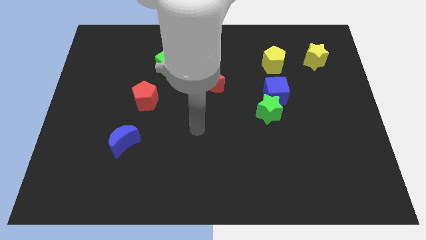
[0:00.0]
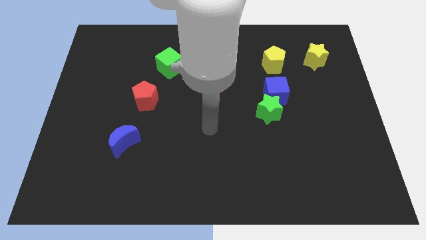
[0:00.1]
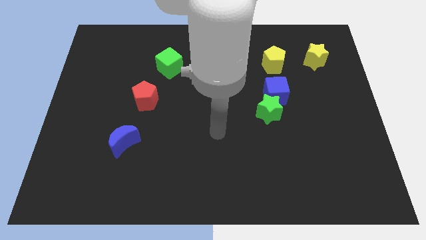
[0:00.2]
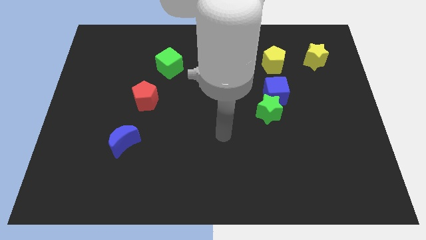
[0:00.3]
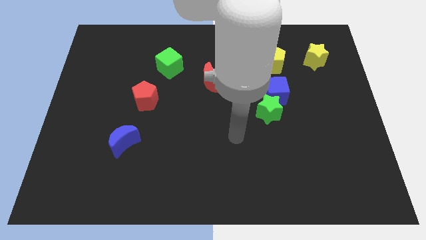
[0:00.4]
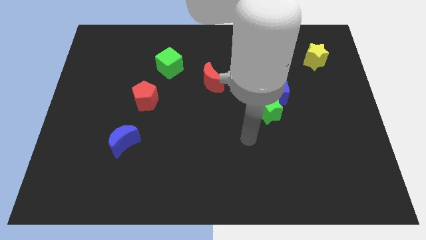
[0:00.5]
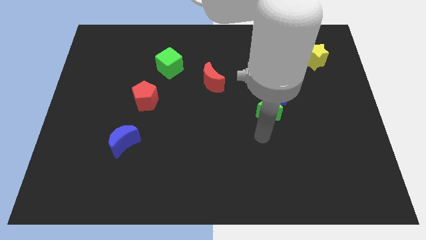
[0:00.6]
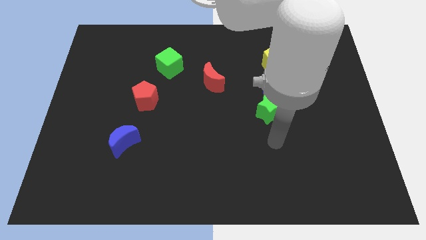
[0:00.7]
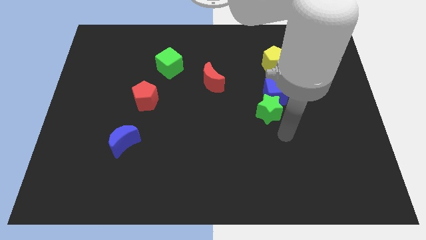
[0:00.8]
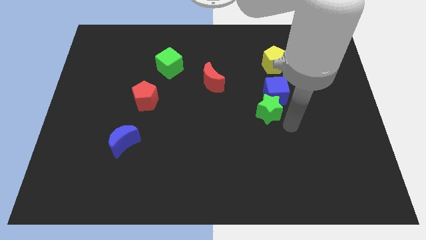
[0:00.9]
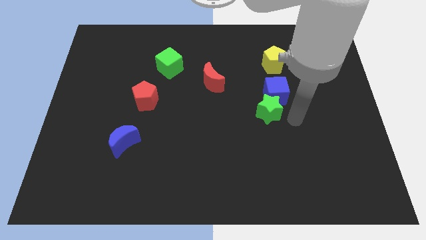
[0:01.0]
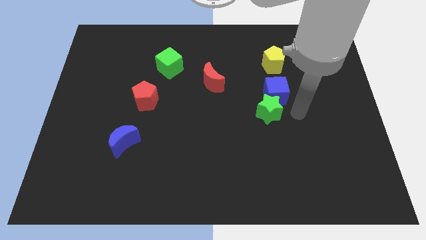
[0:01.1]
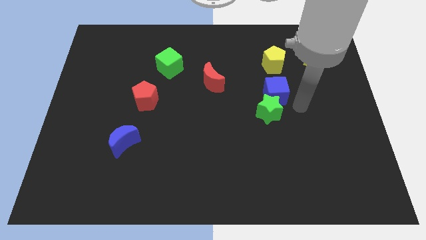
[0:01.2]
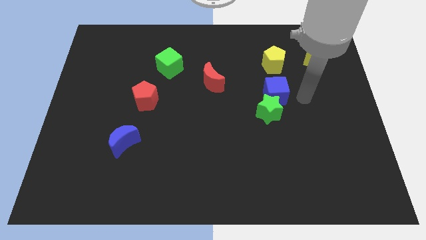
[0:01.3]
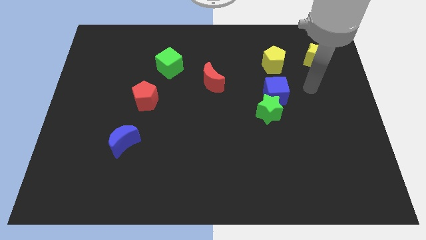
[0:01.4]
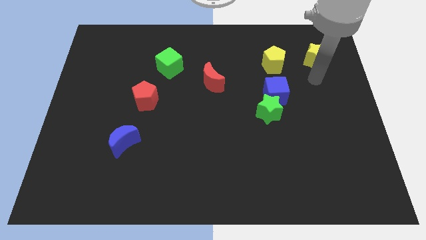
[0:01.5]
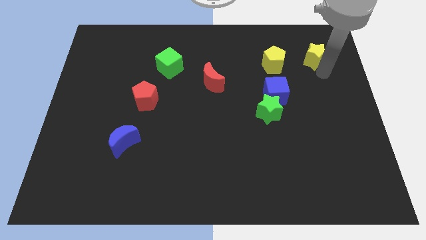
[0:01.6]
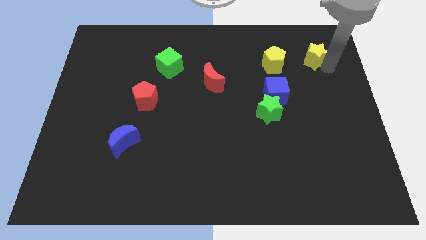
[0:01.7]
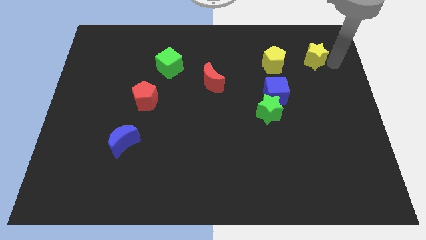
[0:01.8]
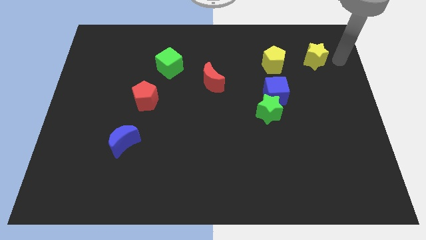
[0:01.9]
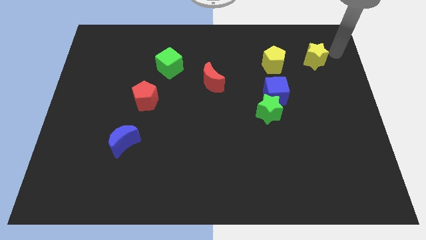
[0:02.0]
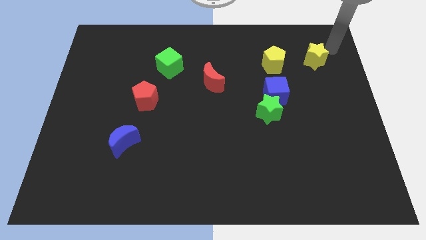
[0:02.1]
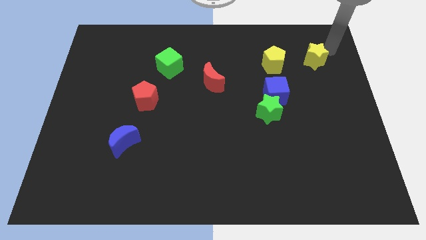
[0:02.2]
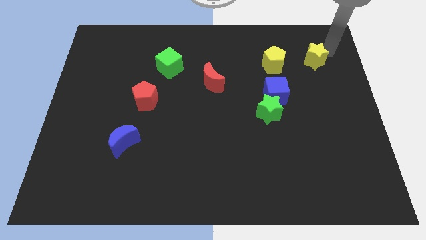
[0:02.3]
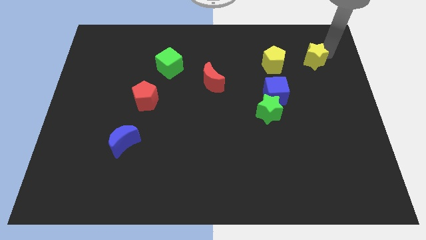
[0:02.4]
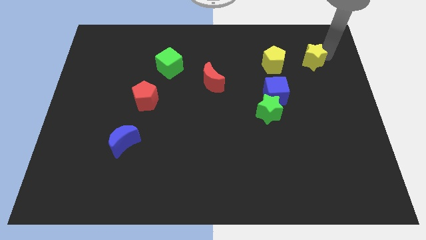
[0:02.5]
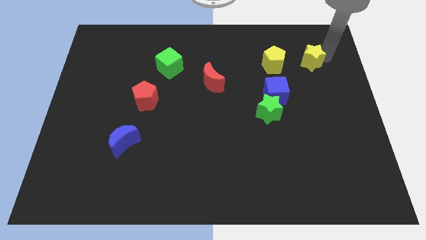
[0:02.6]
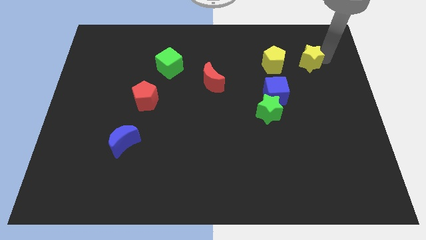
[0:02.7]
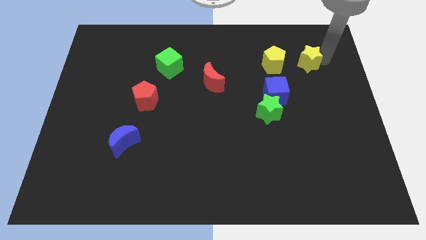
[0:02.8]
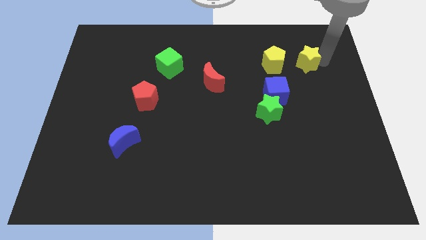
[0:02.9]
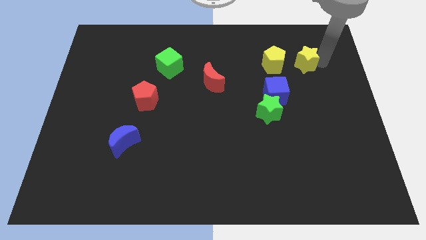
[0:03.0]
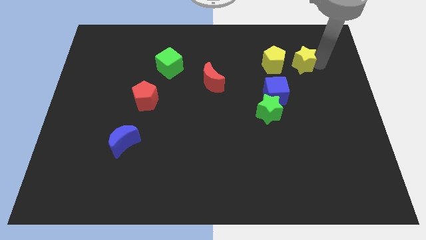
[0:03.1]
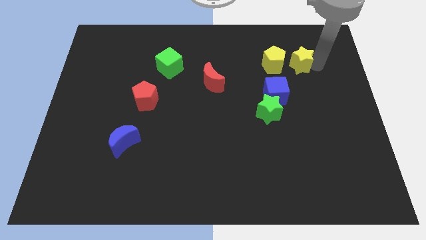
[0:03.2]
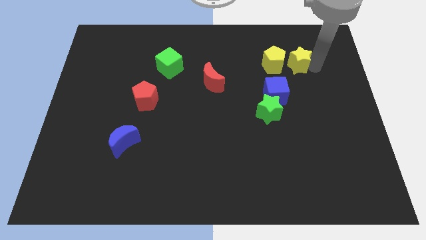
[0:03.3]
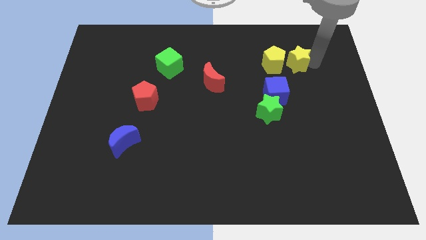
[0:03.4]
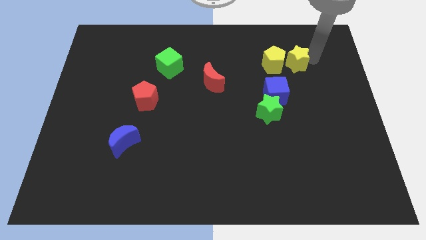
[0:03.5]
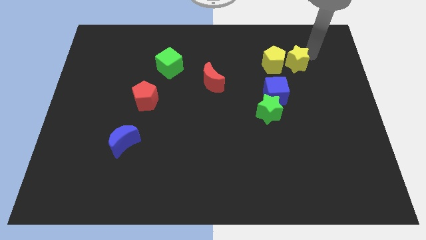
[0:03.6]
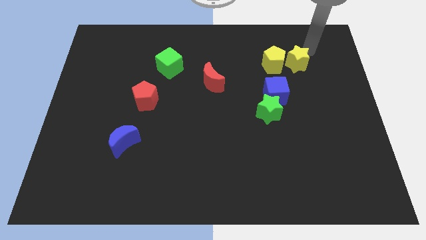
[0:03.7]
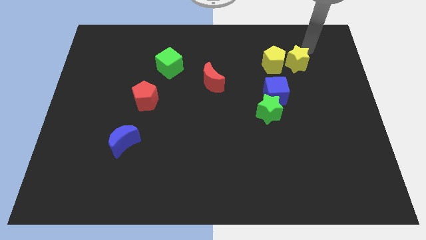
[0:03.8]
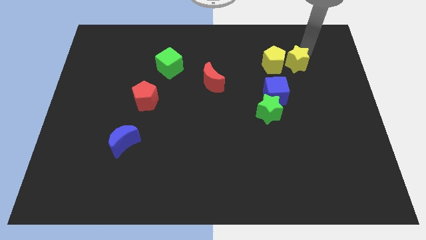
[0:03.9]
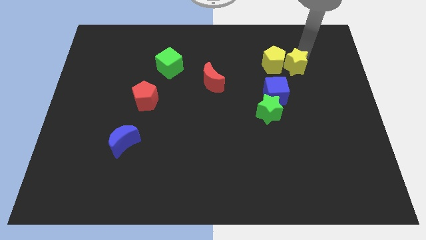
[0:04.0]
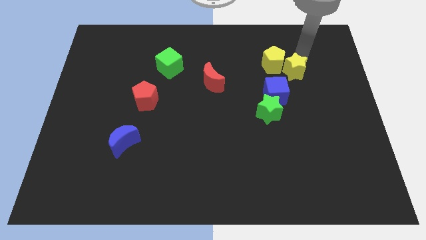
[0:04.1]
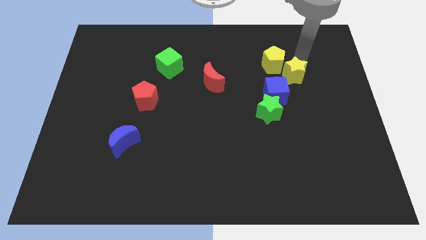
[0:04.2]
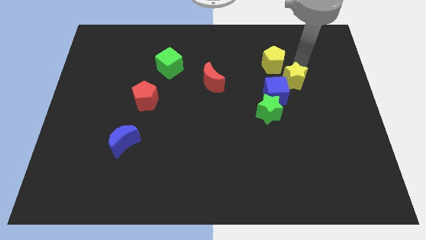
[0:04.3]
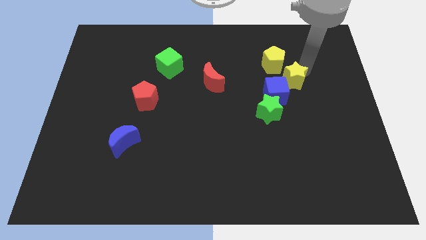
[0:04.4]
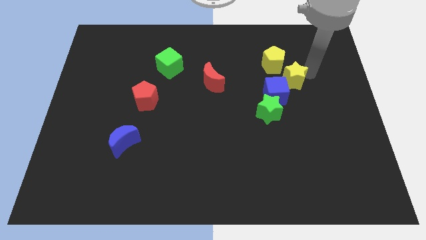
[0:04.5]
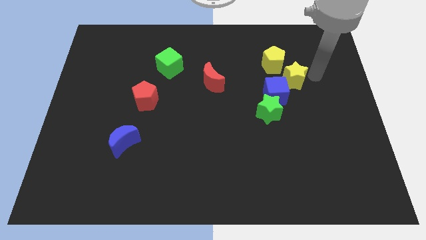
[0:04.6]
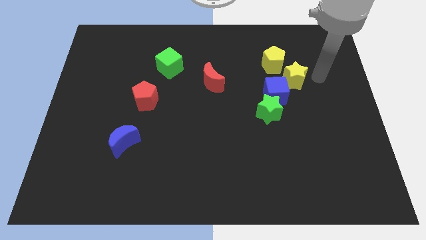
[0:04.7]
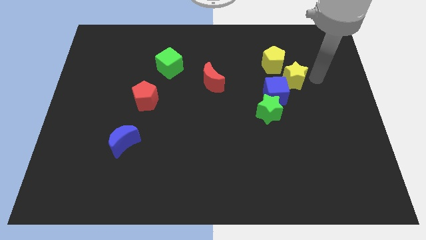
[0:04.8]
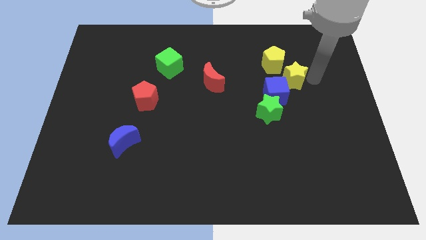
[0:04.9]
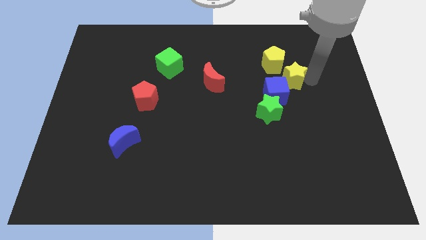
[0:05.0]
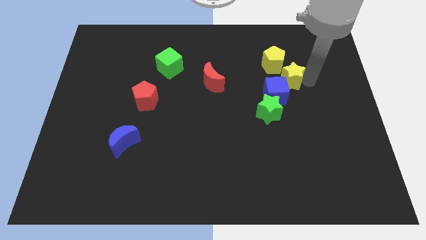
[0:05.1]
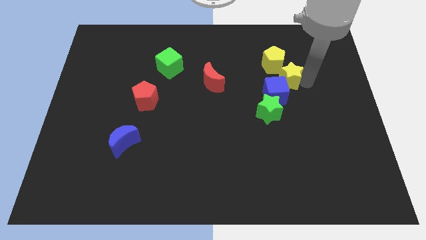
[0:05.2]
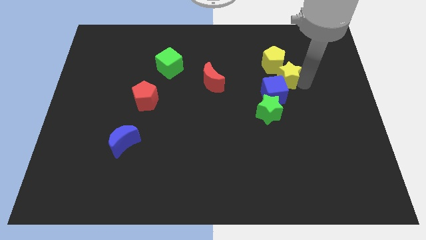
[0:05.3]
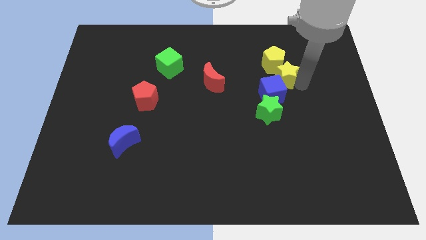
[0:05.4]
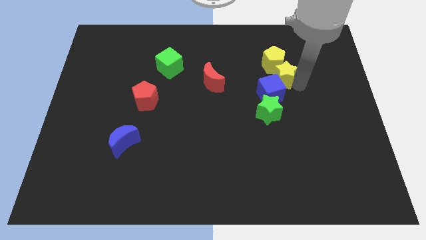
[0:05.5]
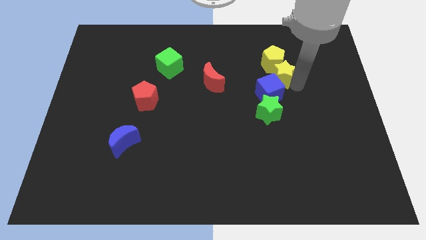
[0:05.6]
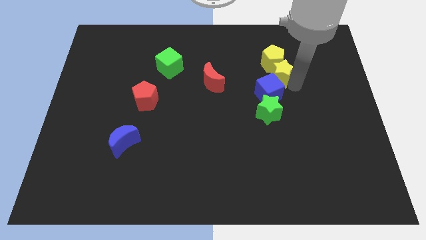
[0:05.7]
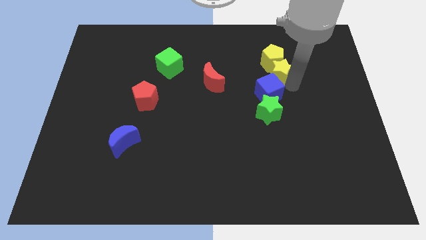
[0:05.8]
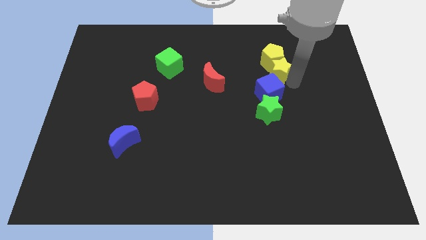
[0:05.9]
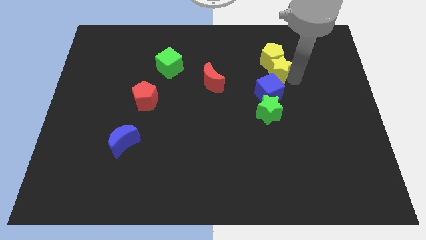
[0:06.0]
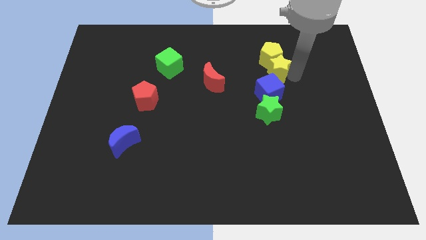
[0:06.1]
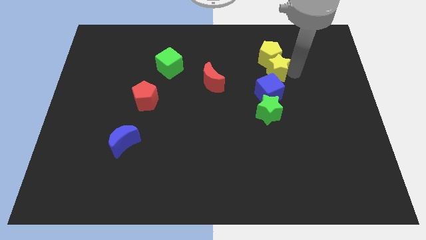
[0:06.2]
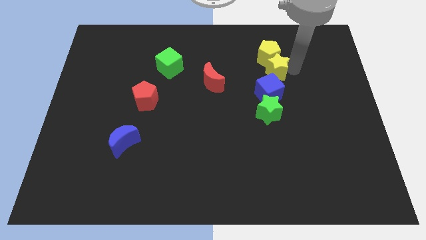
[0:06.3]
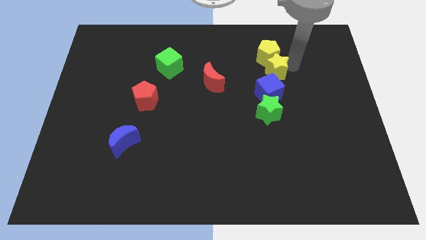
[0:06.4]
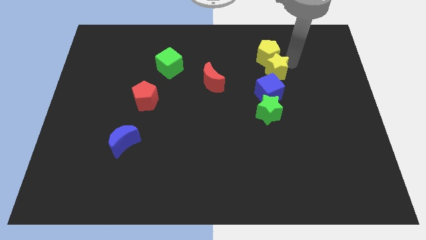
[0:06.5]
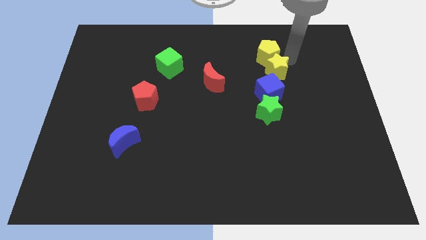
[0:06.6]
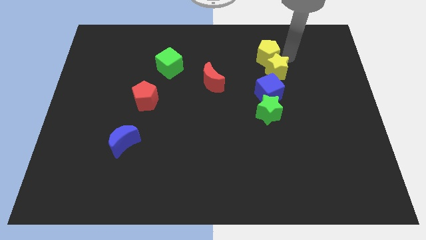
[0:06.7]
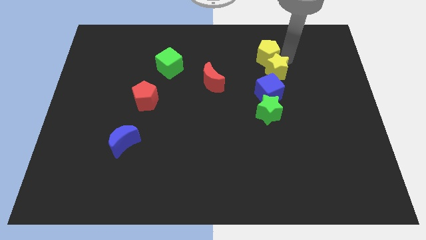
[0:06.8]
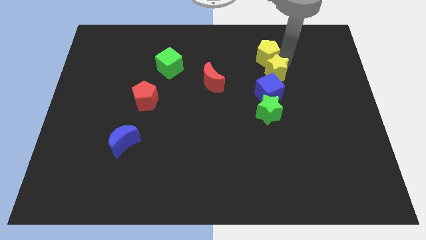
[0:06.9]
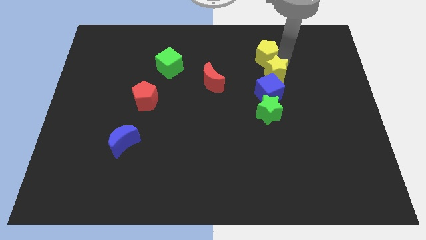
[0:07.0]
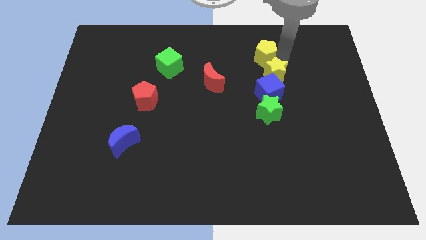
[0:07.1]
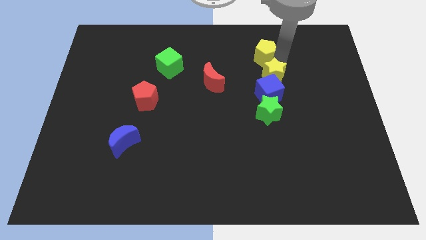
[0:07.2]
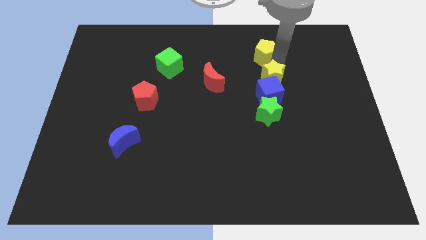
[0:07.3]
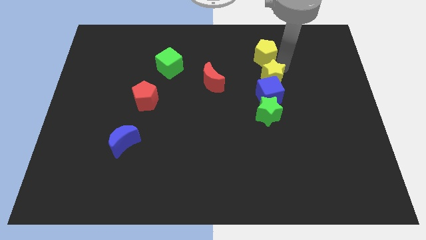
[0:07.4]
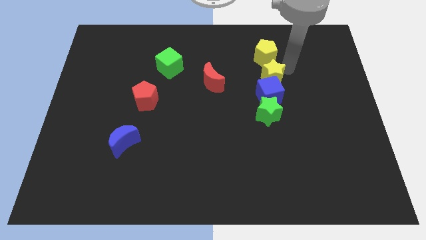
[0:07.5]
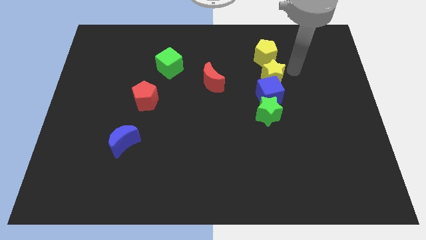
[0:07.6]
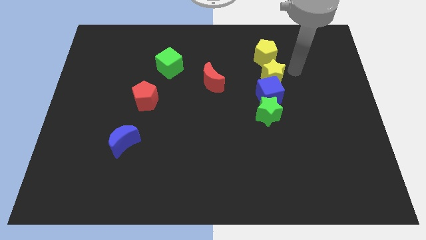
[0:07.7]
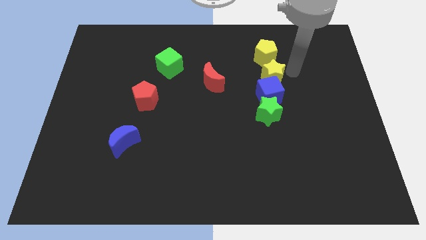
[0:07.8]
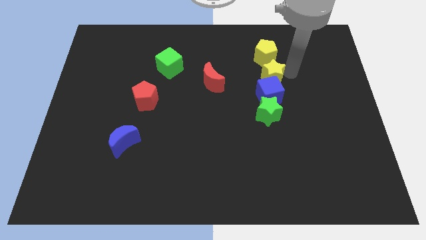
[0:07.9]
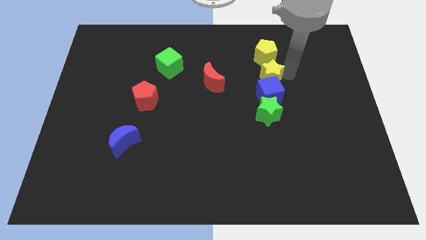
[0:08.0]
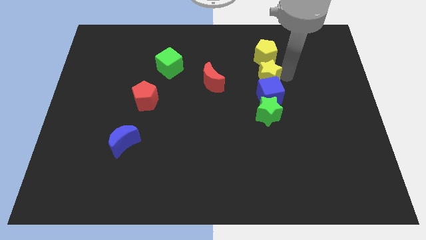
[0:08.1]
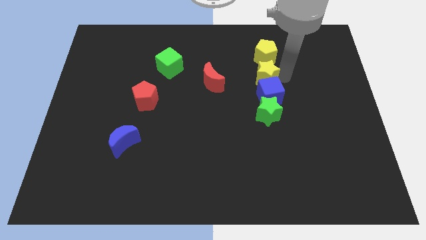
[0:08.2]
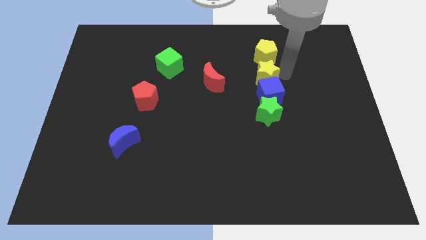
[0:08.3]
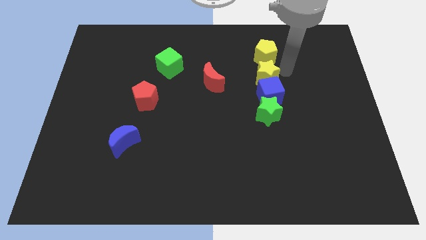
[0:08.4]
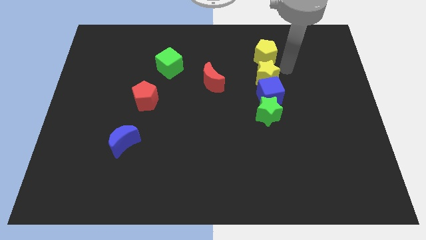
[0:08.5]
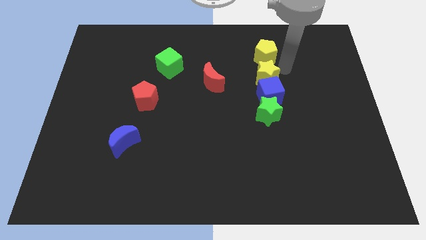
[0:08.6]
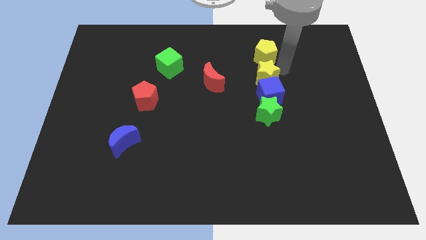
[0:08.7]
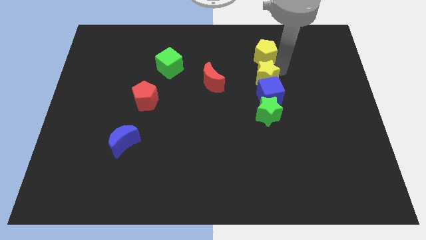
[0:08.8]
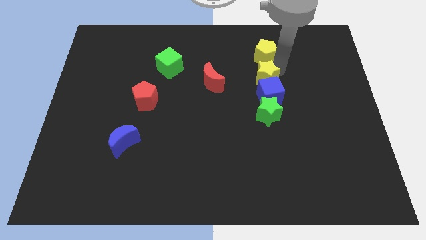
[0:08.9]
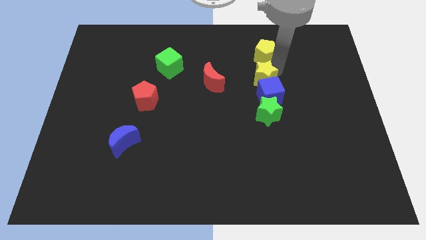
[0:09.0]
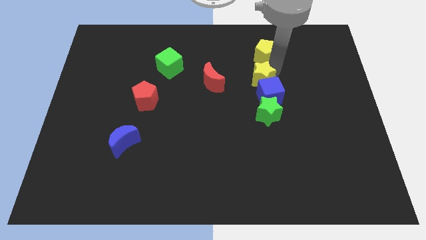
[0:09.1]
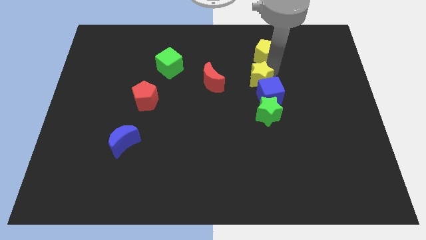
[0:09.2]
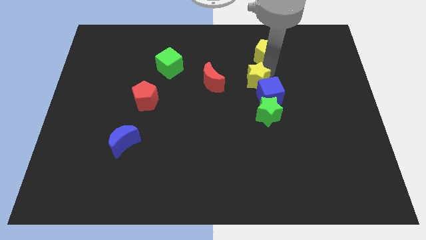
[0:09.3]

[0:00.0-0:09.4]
move the yellow star to the middle
